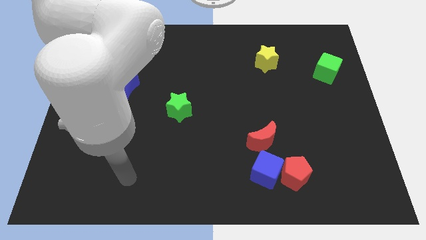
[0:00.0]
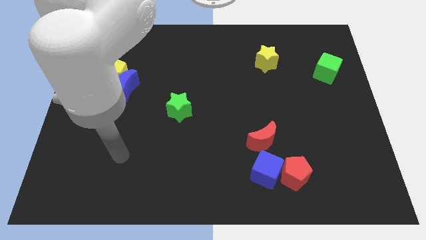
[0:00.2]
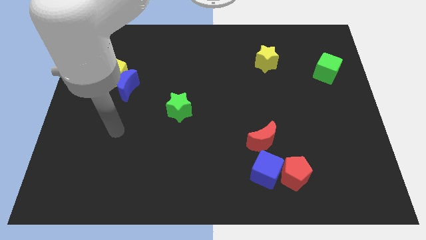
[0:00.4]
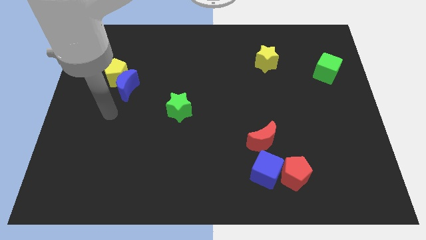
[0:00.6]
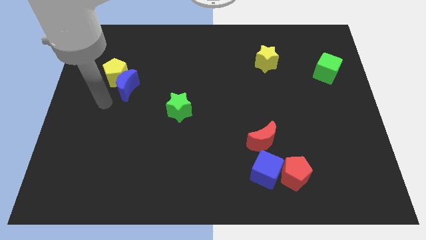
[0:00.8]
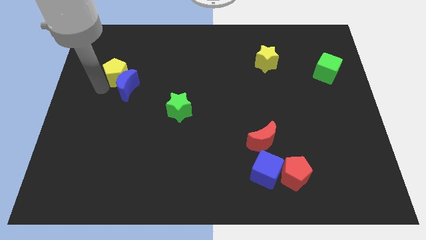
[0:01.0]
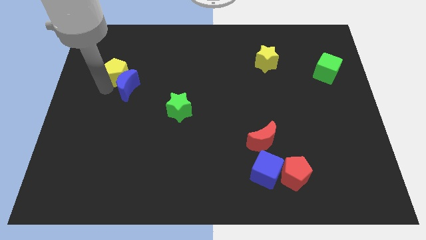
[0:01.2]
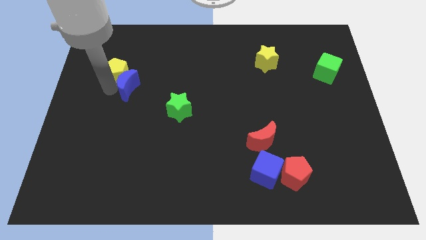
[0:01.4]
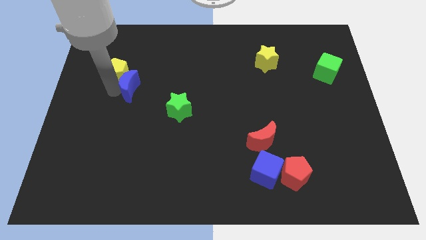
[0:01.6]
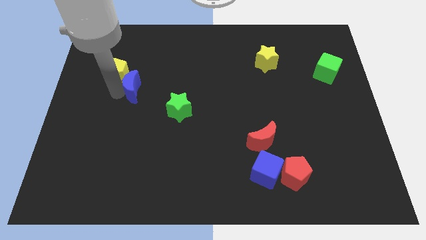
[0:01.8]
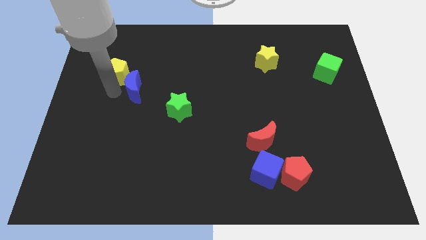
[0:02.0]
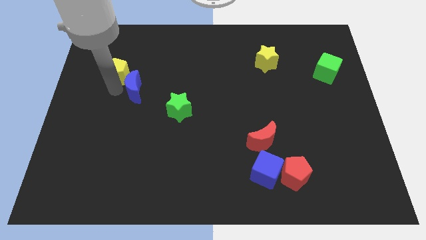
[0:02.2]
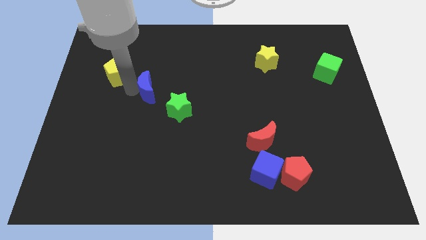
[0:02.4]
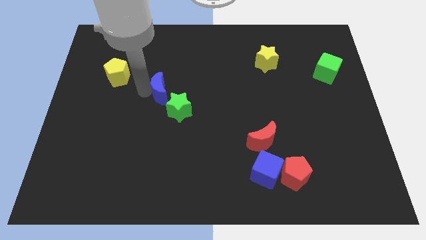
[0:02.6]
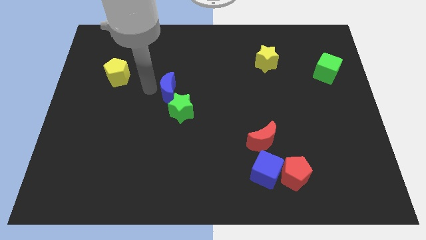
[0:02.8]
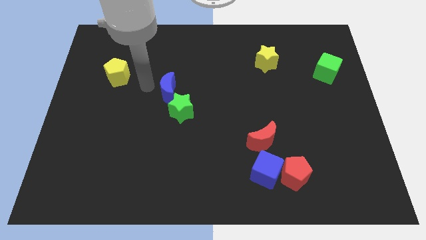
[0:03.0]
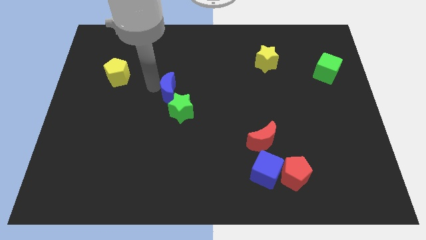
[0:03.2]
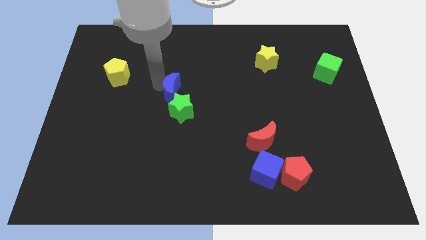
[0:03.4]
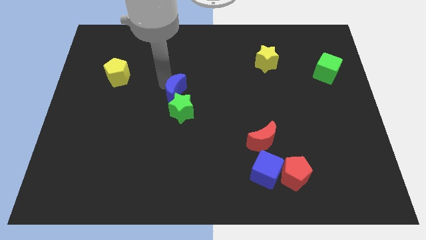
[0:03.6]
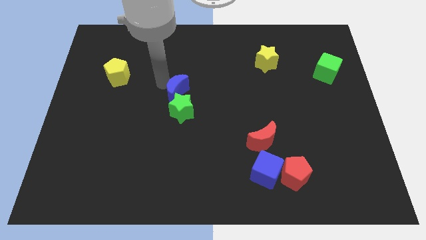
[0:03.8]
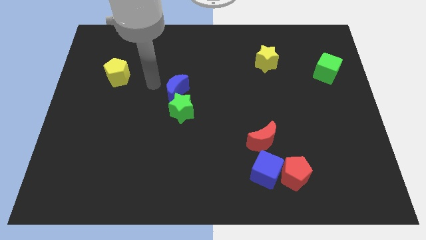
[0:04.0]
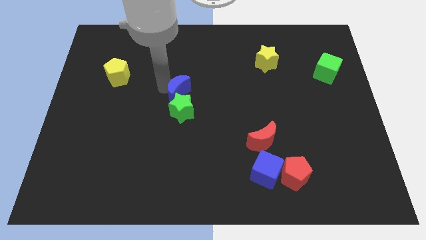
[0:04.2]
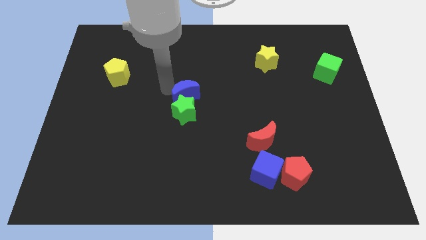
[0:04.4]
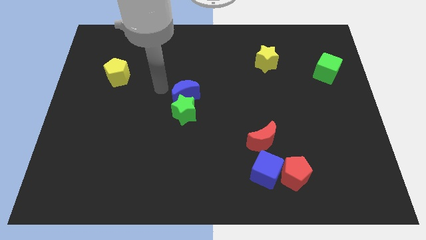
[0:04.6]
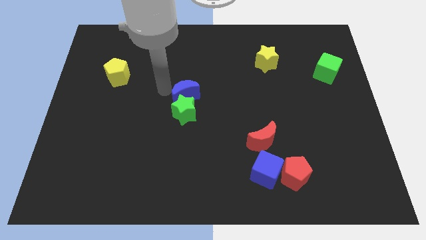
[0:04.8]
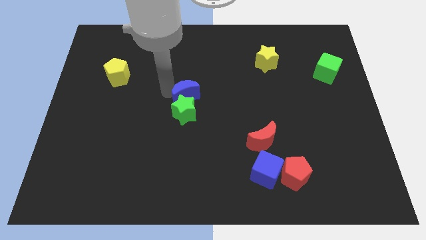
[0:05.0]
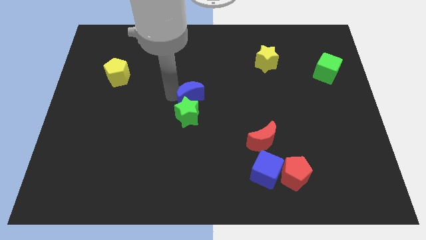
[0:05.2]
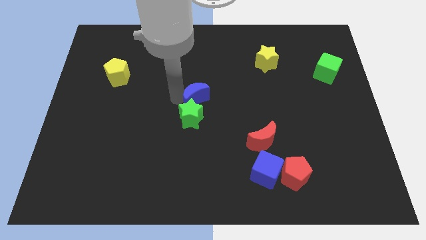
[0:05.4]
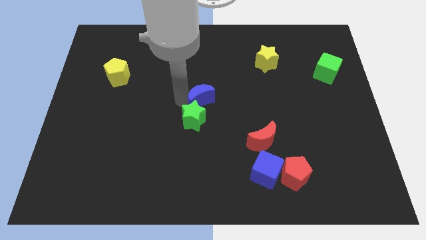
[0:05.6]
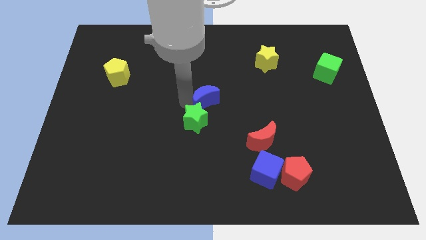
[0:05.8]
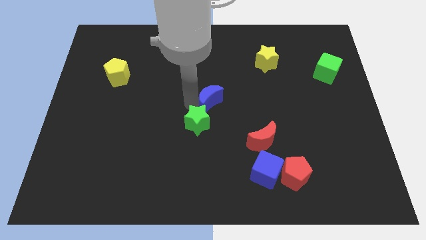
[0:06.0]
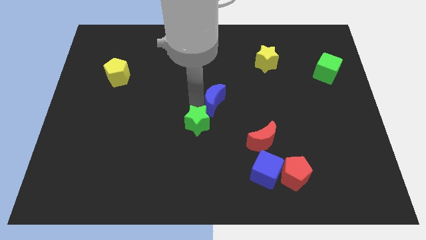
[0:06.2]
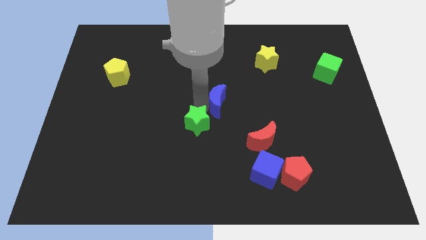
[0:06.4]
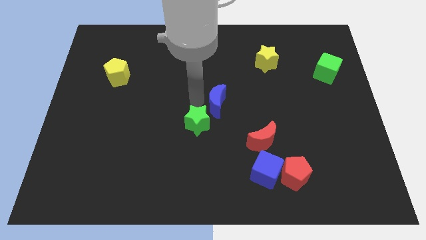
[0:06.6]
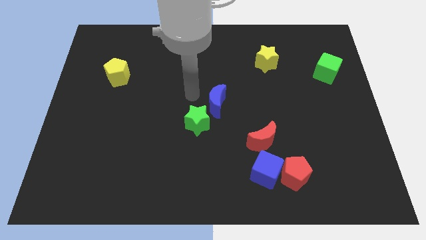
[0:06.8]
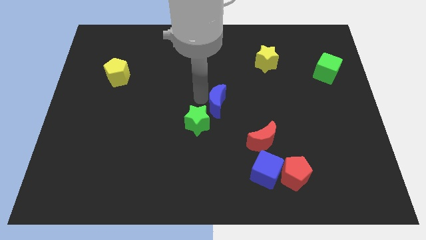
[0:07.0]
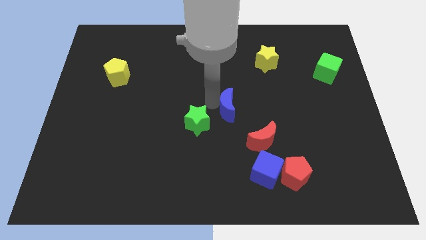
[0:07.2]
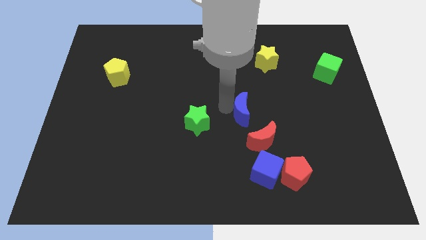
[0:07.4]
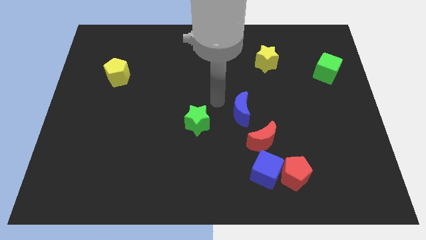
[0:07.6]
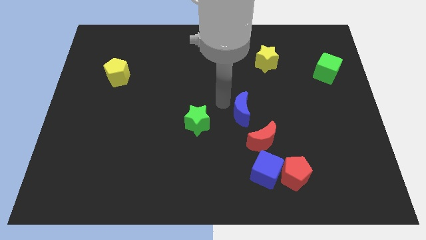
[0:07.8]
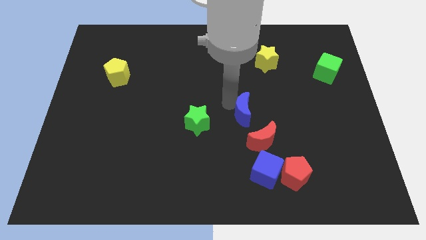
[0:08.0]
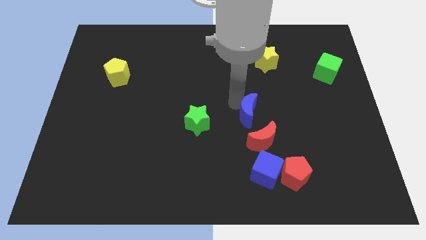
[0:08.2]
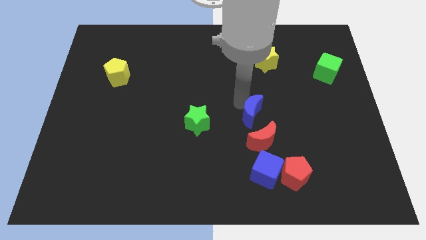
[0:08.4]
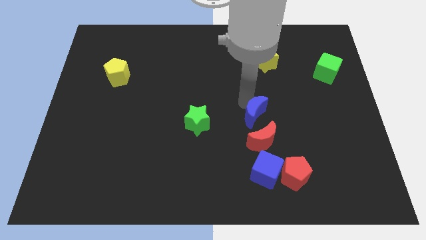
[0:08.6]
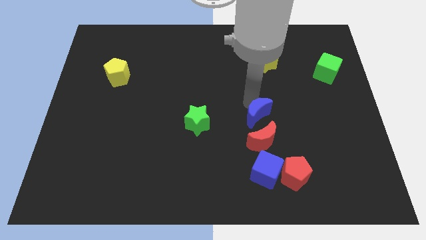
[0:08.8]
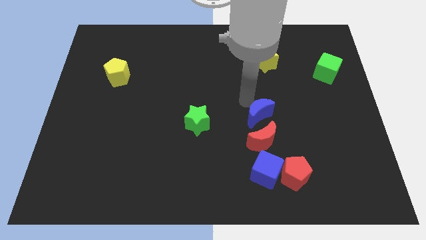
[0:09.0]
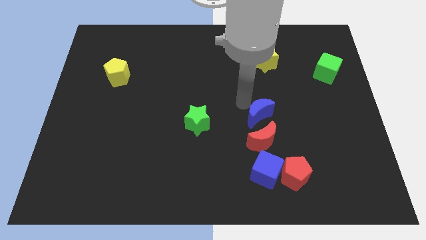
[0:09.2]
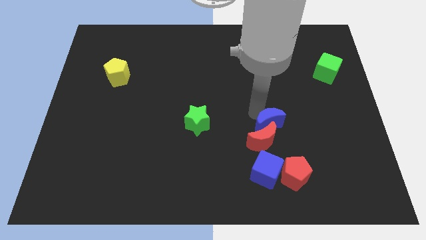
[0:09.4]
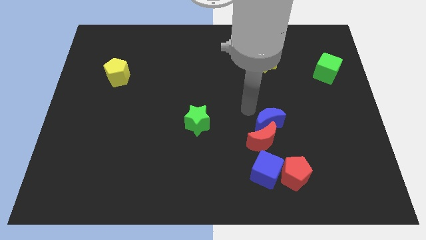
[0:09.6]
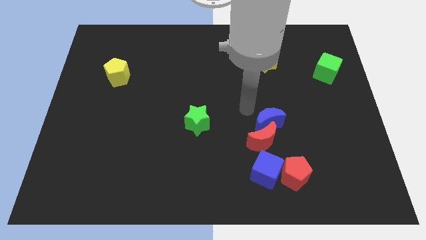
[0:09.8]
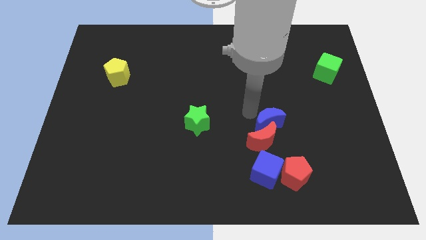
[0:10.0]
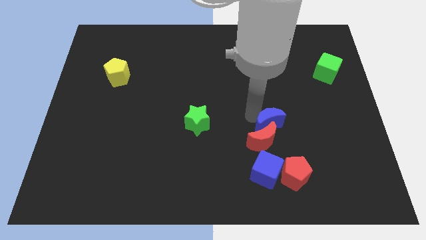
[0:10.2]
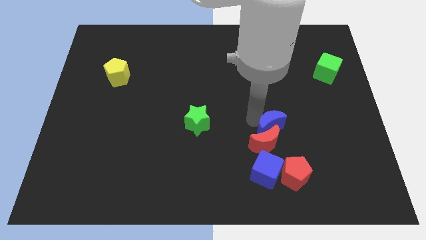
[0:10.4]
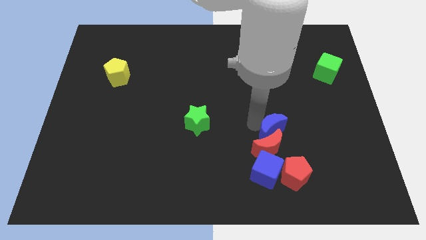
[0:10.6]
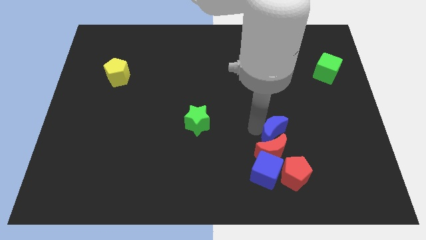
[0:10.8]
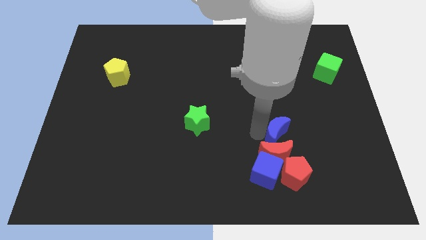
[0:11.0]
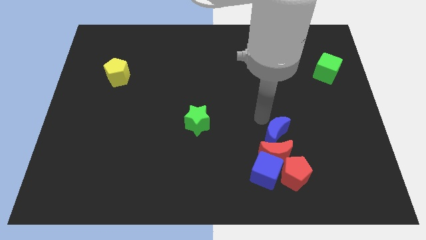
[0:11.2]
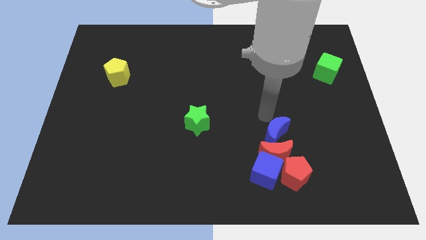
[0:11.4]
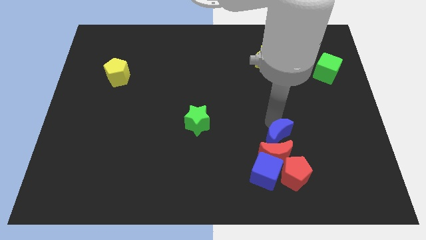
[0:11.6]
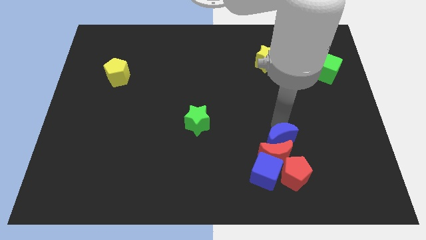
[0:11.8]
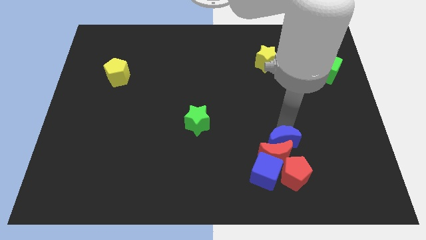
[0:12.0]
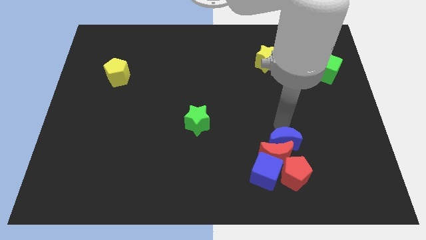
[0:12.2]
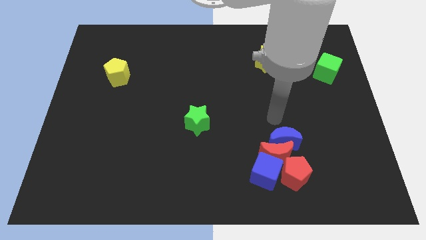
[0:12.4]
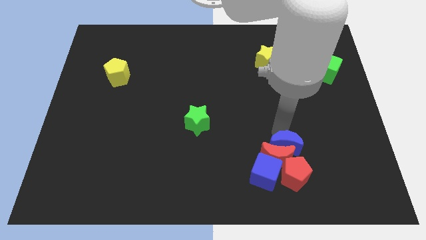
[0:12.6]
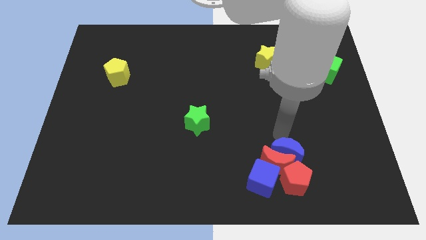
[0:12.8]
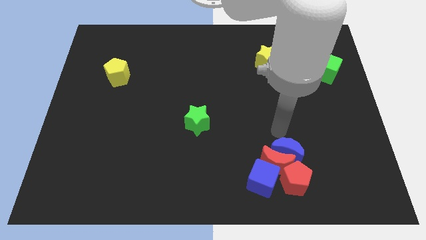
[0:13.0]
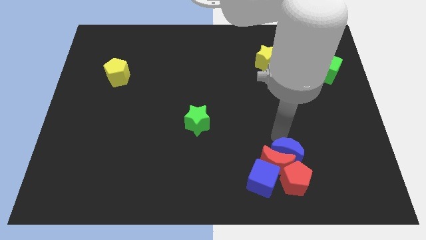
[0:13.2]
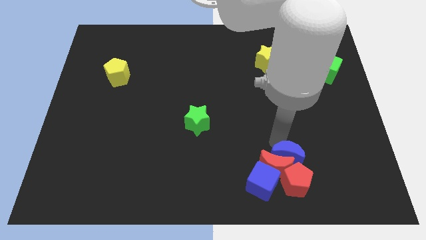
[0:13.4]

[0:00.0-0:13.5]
push the blue moon next to the red pentagon

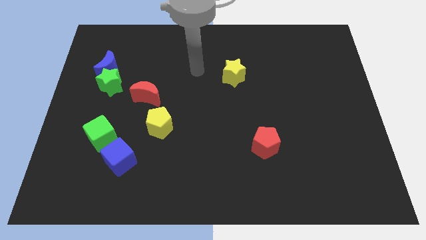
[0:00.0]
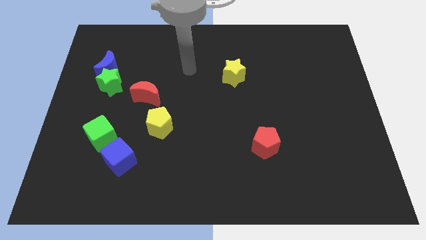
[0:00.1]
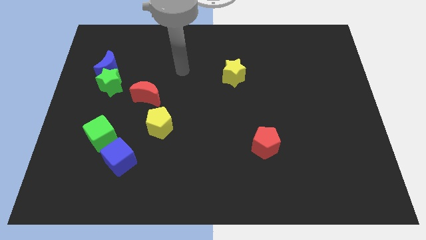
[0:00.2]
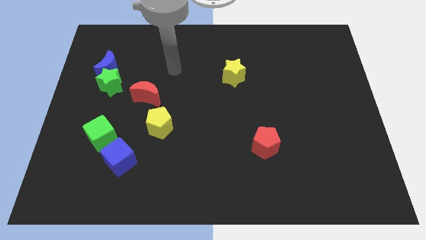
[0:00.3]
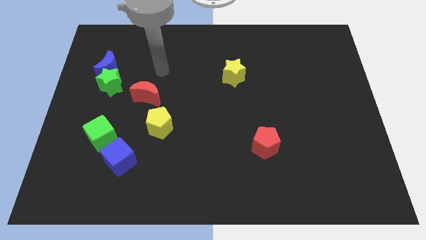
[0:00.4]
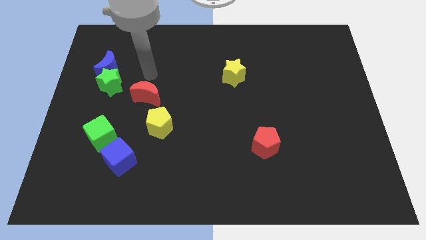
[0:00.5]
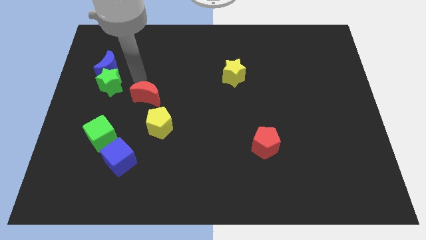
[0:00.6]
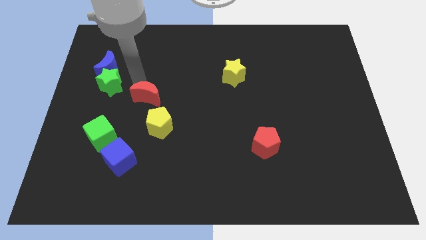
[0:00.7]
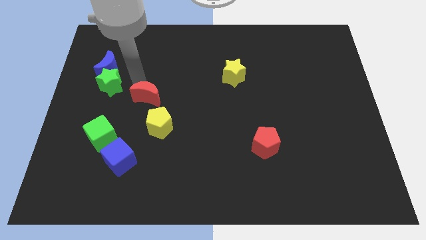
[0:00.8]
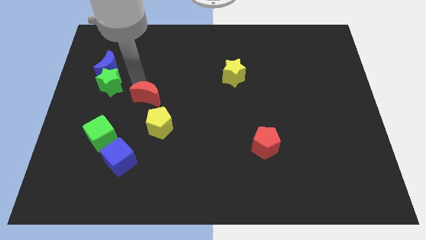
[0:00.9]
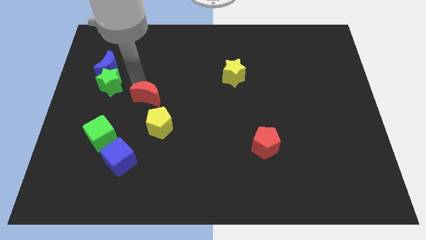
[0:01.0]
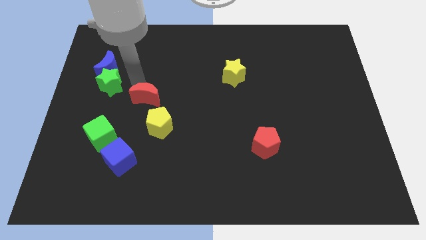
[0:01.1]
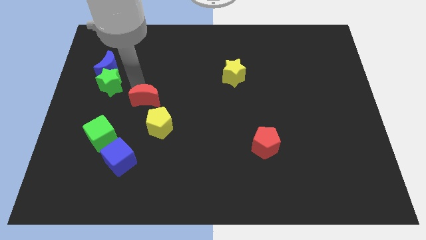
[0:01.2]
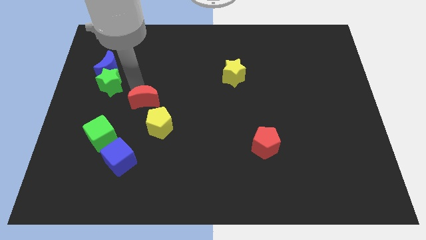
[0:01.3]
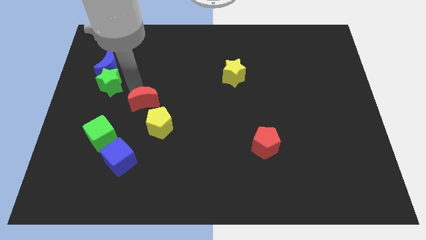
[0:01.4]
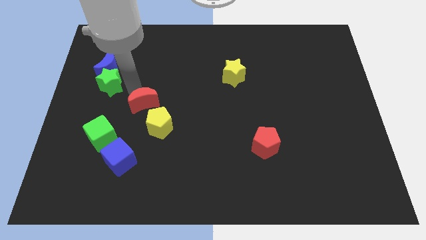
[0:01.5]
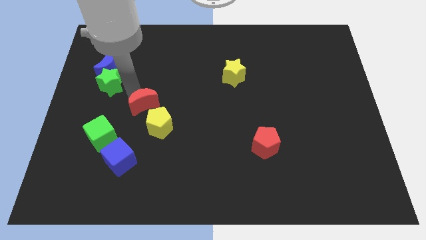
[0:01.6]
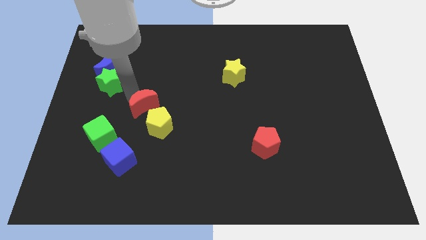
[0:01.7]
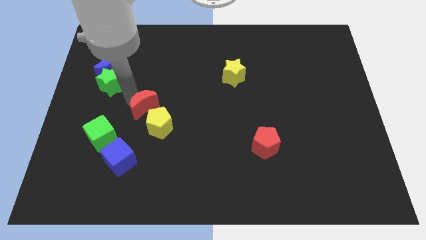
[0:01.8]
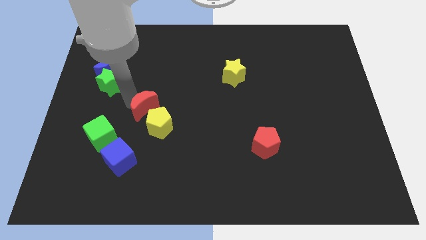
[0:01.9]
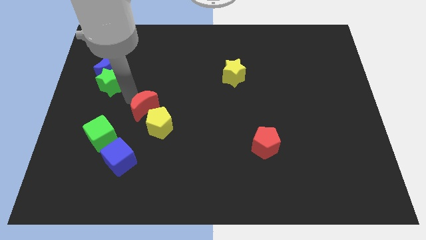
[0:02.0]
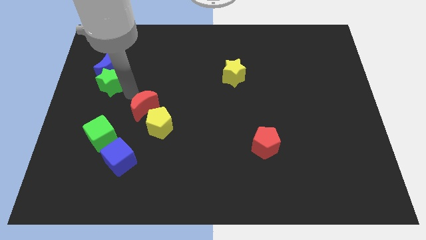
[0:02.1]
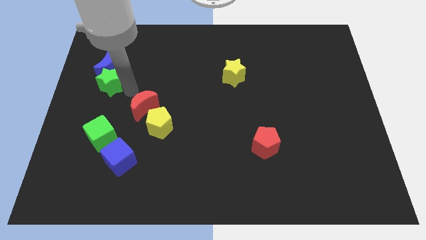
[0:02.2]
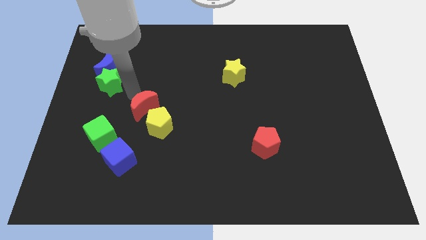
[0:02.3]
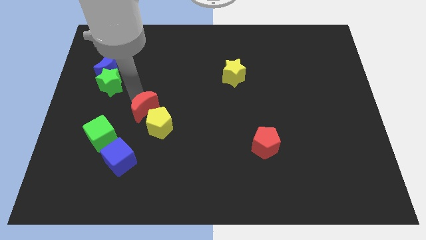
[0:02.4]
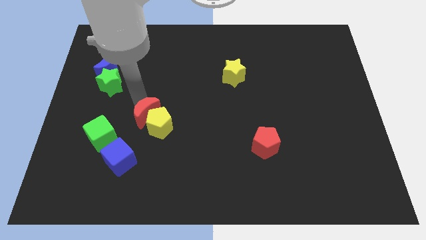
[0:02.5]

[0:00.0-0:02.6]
put the red moon close to the yellow pentagon
